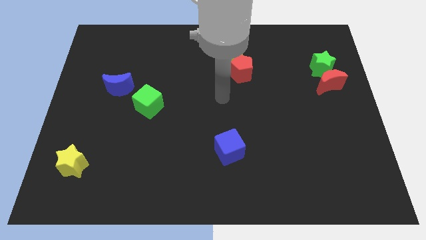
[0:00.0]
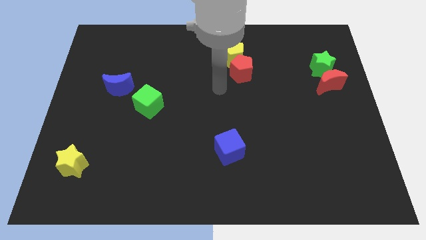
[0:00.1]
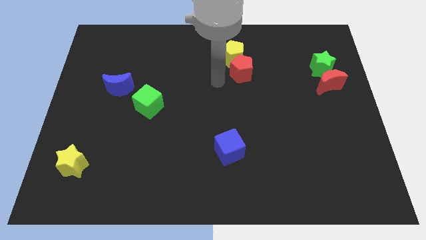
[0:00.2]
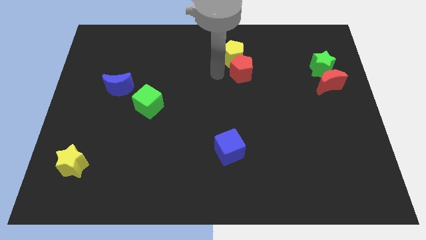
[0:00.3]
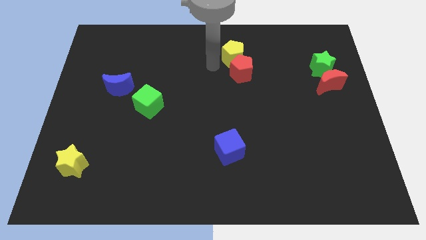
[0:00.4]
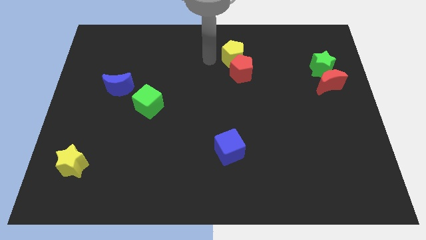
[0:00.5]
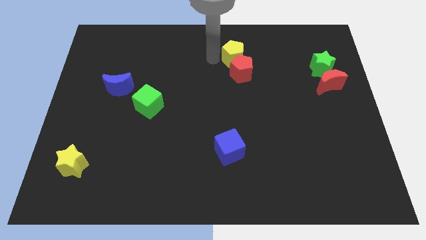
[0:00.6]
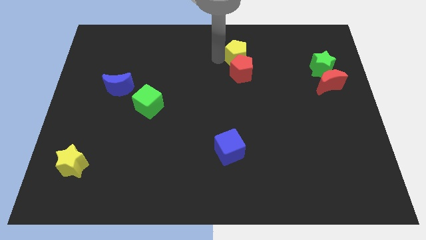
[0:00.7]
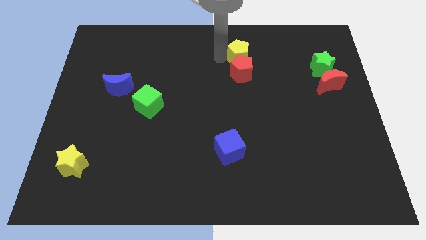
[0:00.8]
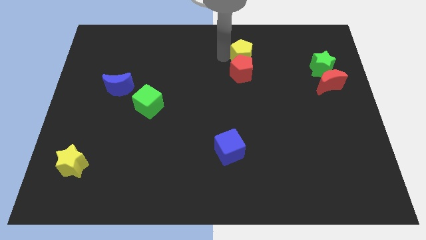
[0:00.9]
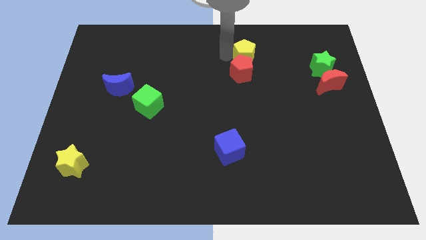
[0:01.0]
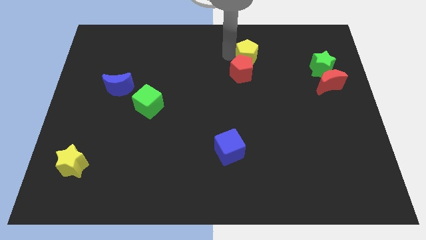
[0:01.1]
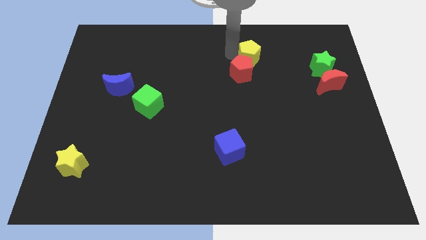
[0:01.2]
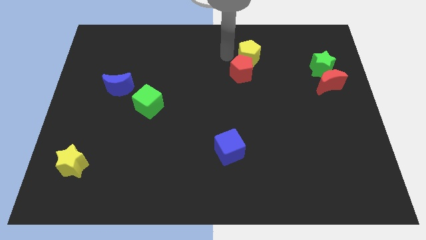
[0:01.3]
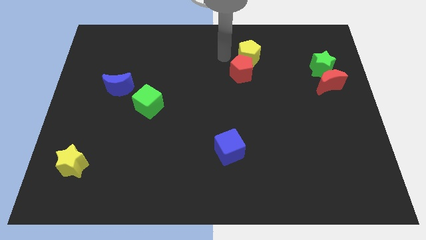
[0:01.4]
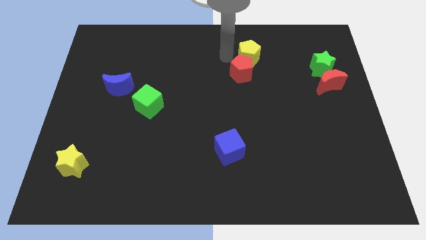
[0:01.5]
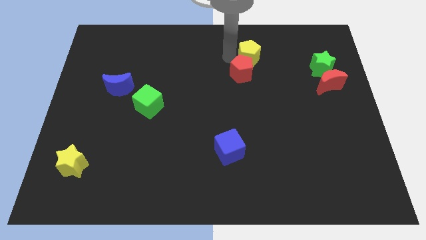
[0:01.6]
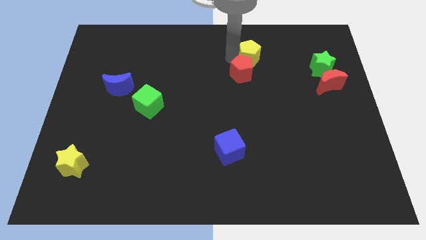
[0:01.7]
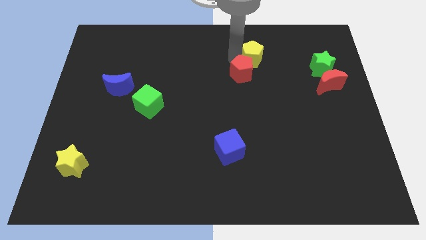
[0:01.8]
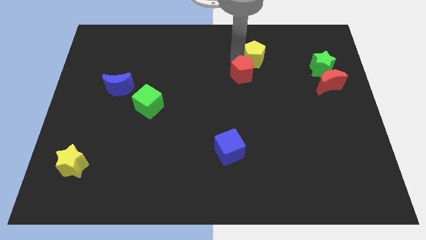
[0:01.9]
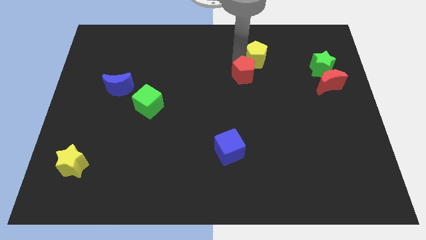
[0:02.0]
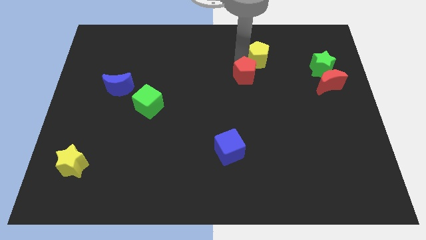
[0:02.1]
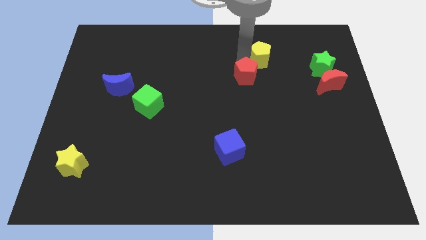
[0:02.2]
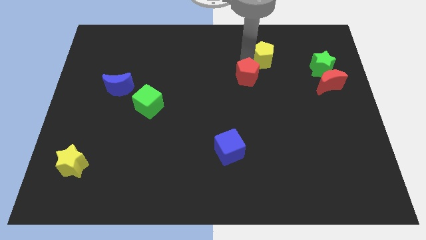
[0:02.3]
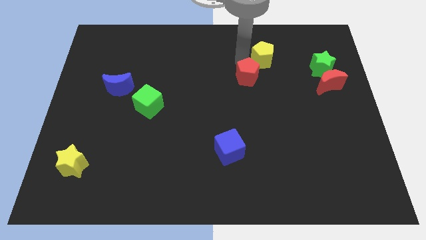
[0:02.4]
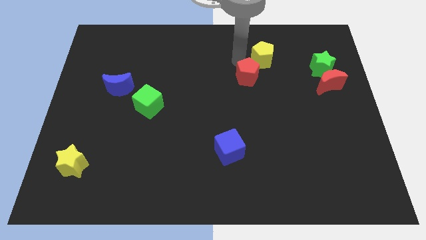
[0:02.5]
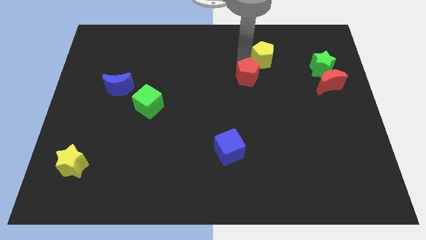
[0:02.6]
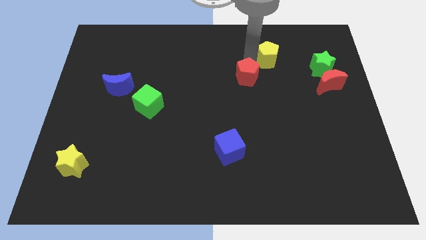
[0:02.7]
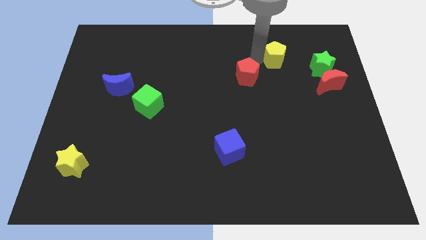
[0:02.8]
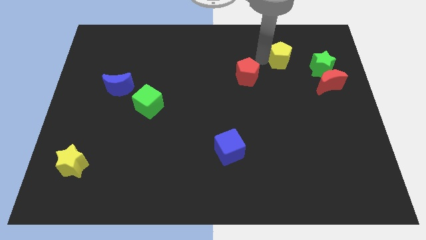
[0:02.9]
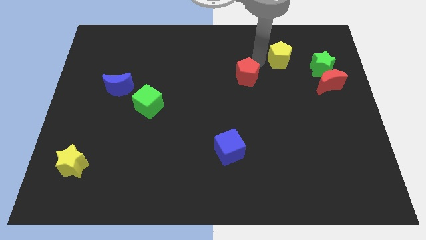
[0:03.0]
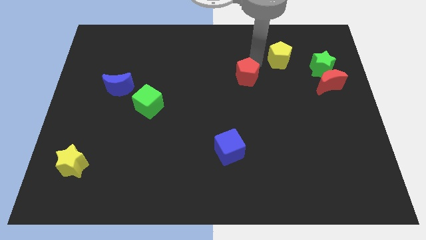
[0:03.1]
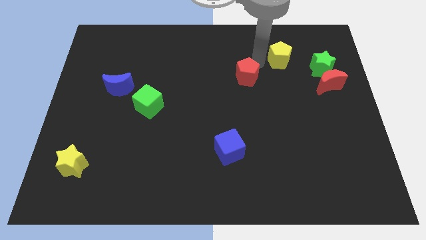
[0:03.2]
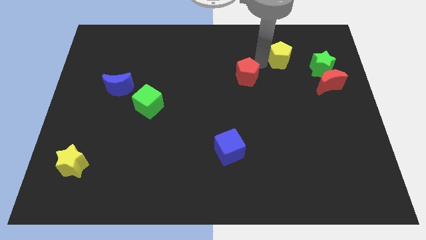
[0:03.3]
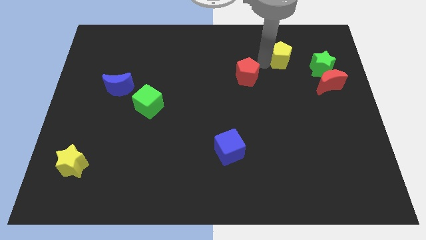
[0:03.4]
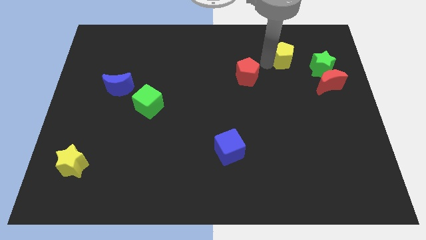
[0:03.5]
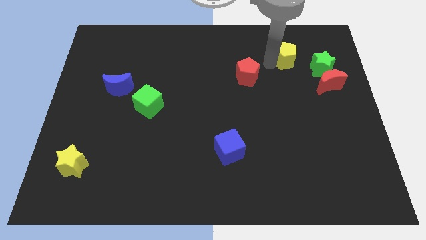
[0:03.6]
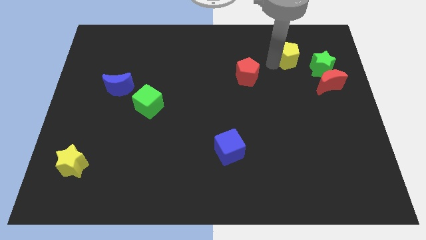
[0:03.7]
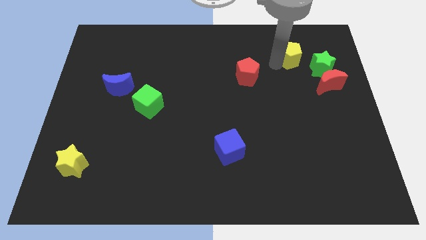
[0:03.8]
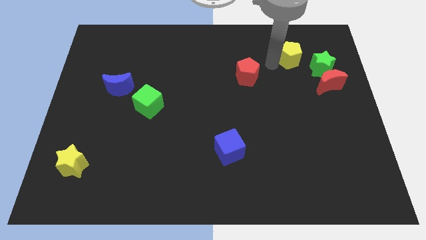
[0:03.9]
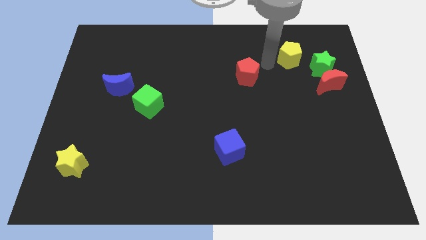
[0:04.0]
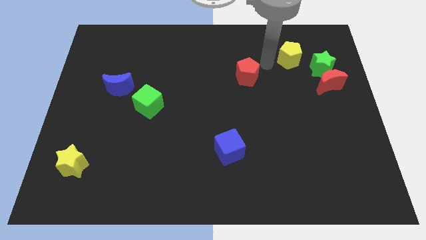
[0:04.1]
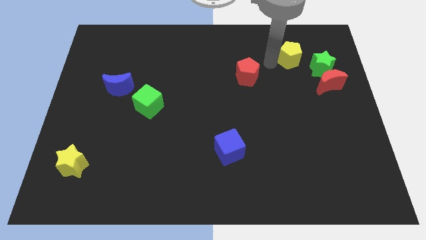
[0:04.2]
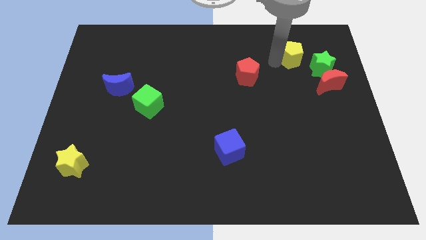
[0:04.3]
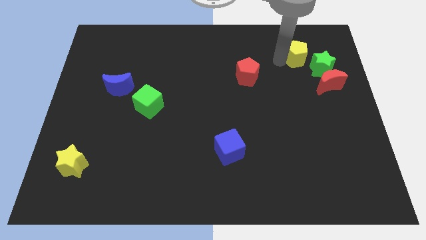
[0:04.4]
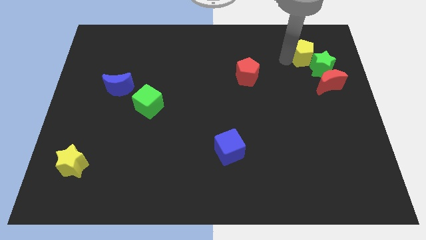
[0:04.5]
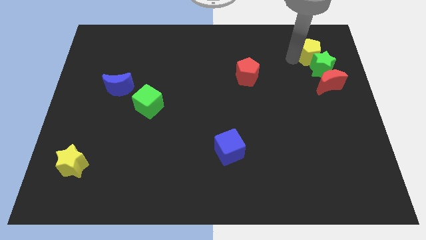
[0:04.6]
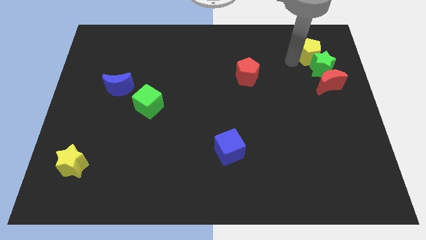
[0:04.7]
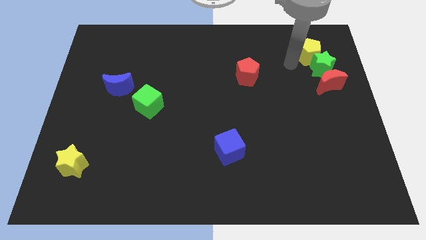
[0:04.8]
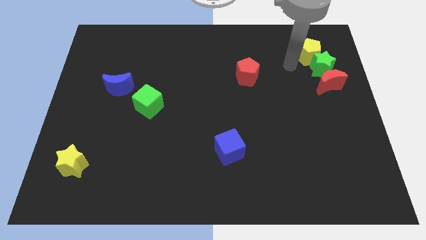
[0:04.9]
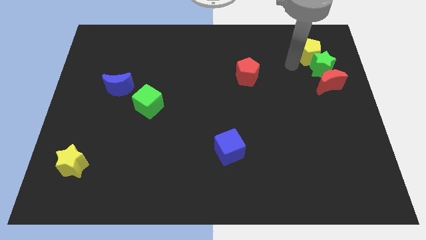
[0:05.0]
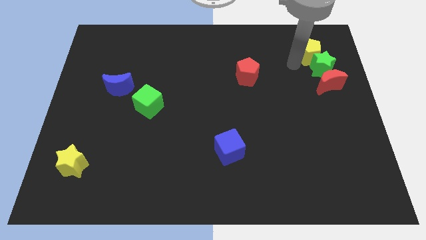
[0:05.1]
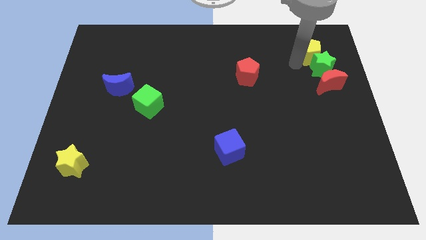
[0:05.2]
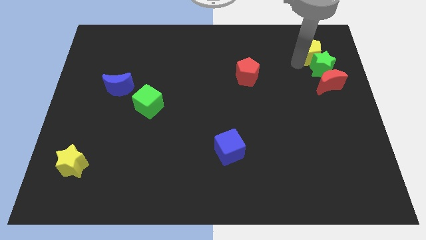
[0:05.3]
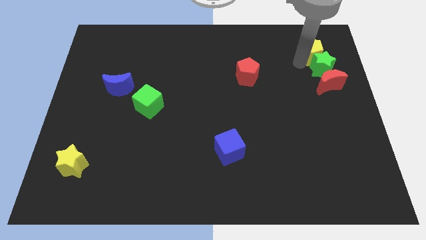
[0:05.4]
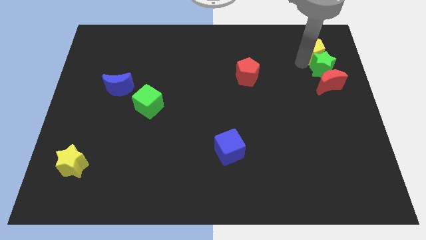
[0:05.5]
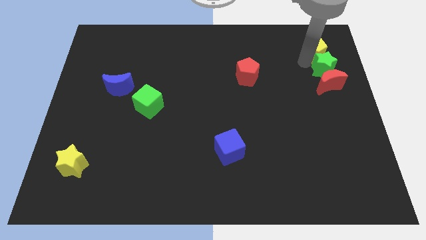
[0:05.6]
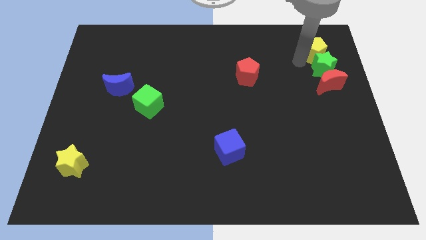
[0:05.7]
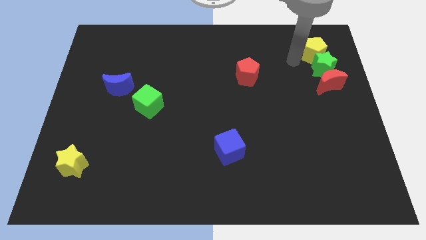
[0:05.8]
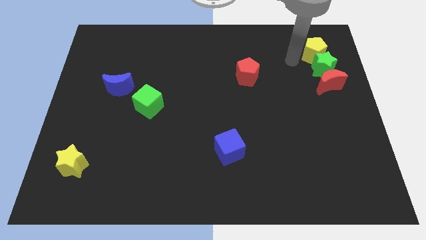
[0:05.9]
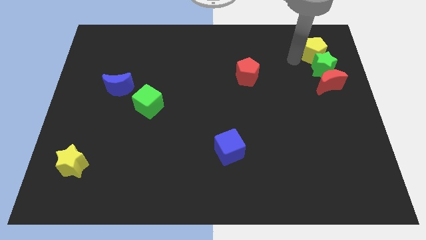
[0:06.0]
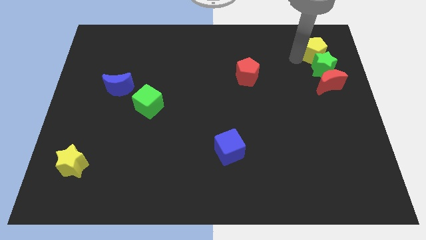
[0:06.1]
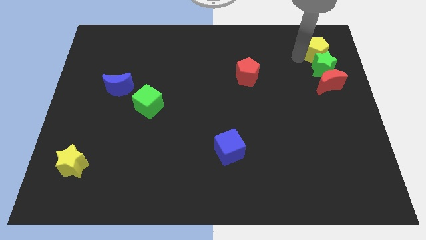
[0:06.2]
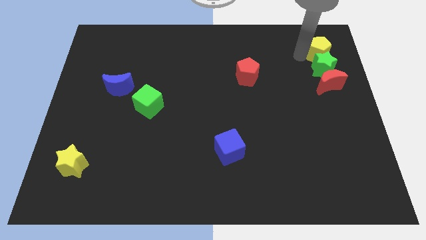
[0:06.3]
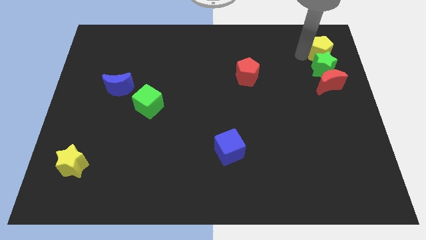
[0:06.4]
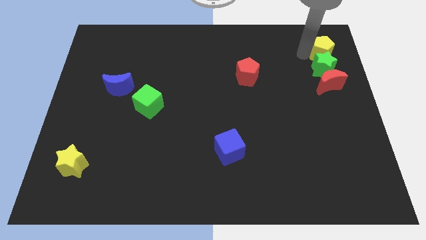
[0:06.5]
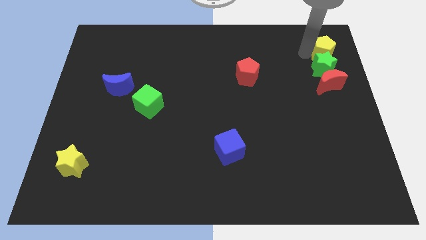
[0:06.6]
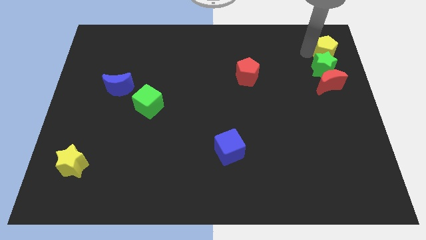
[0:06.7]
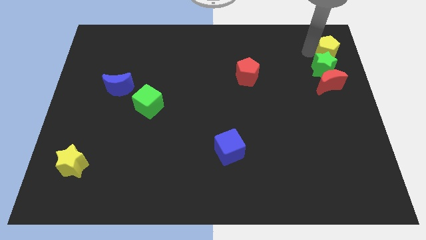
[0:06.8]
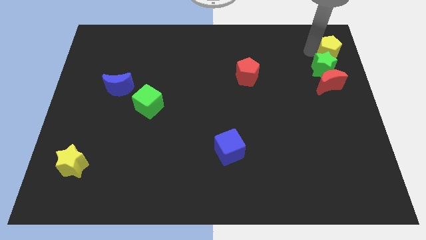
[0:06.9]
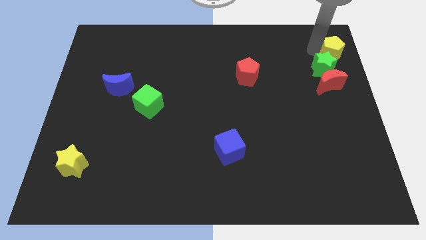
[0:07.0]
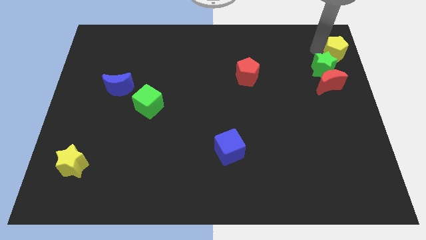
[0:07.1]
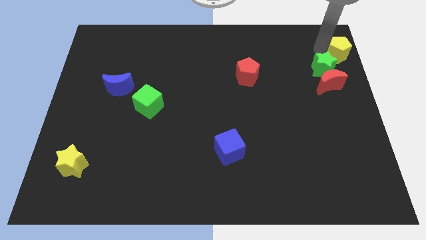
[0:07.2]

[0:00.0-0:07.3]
slide the yellow pentagon to the top right of the board
